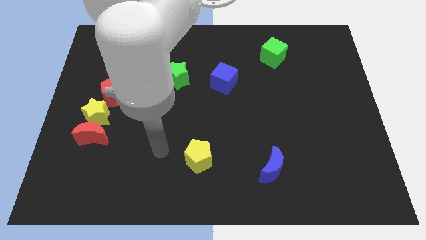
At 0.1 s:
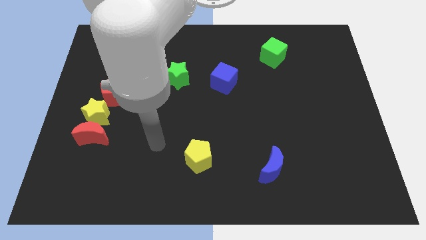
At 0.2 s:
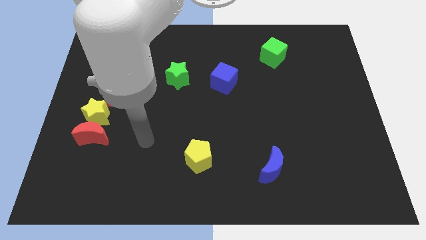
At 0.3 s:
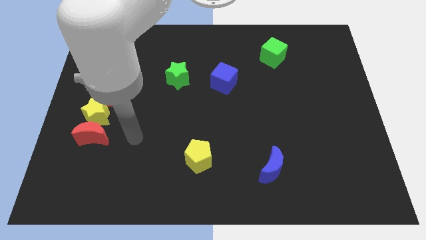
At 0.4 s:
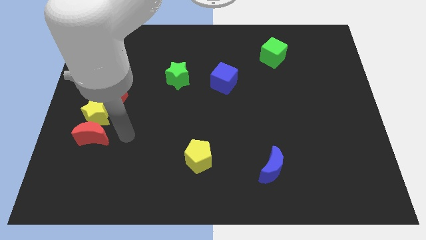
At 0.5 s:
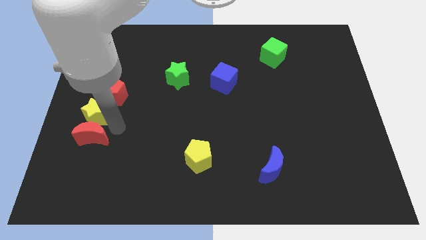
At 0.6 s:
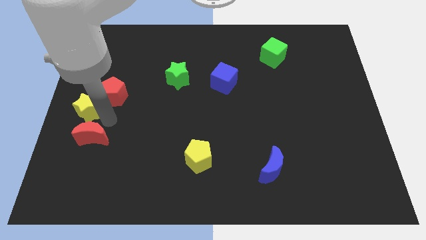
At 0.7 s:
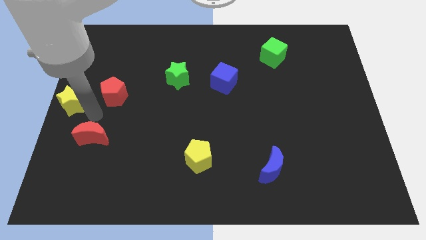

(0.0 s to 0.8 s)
separate the red moon from the yellow star

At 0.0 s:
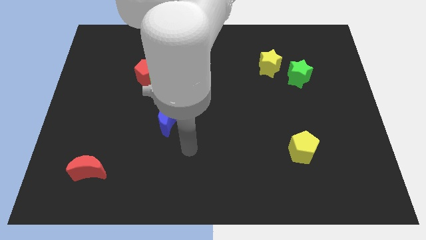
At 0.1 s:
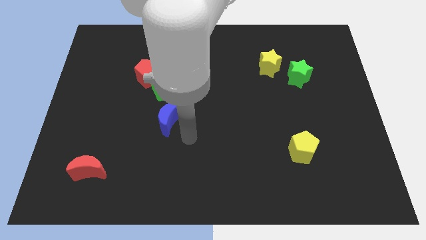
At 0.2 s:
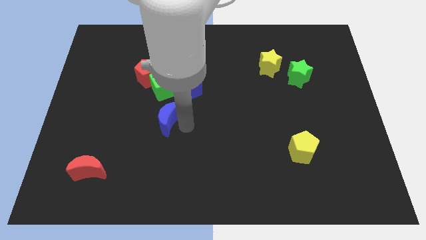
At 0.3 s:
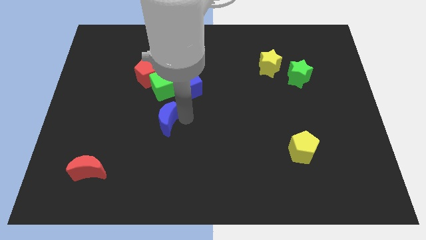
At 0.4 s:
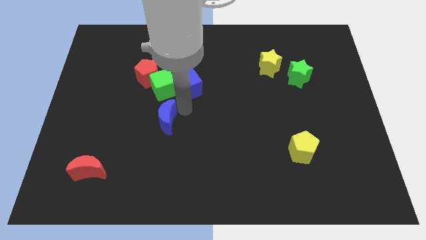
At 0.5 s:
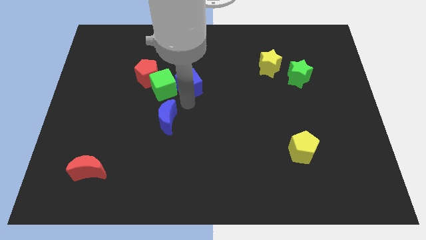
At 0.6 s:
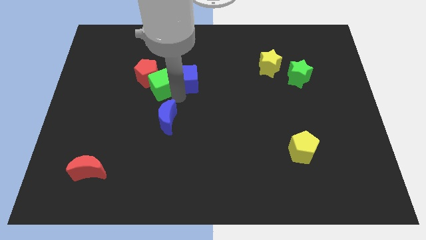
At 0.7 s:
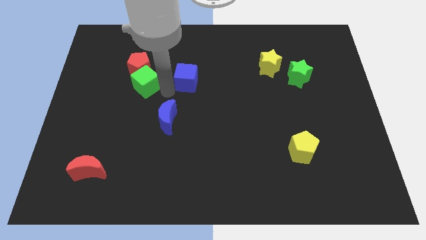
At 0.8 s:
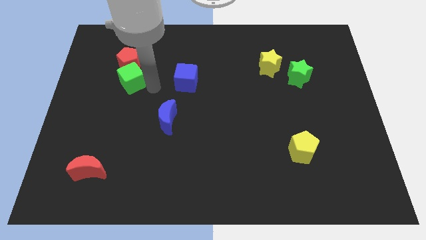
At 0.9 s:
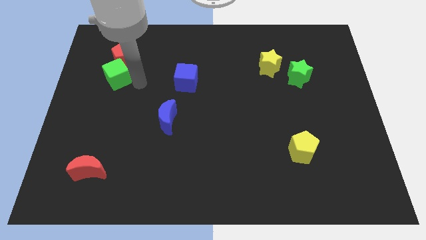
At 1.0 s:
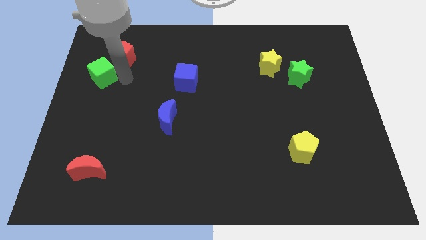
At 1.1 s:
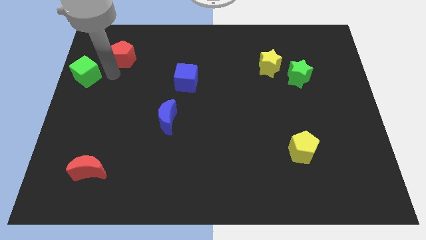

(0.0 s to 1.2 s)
pull the red pentagon apart from the green cube

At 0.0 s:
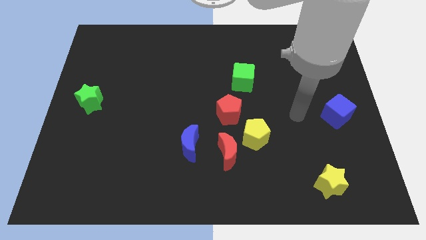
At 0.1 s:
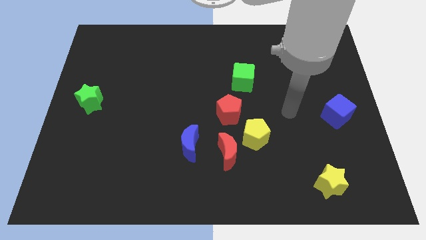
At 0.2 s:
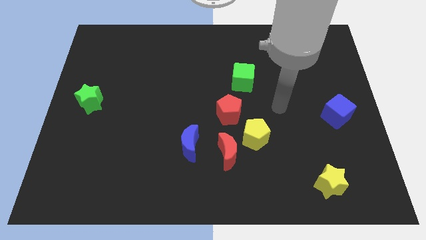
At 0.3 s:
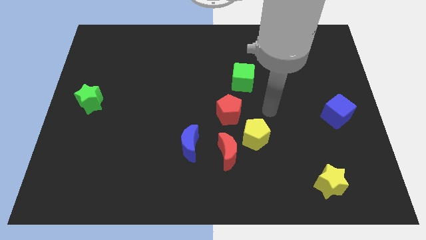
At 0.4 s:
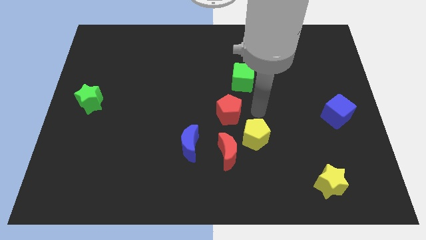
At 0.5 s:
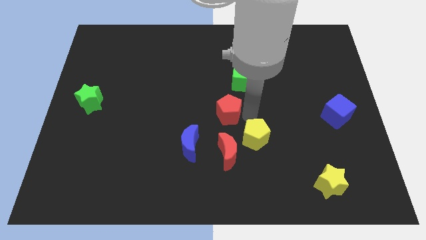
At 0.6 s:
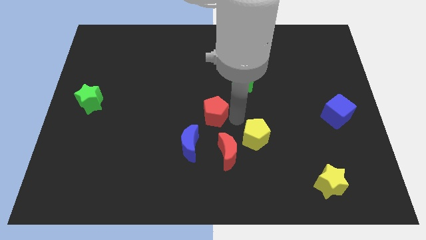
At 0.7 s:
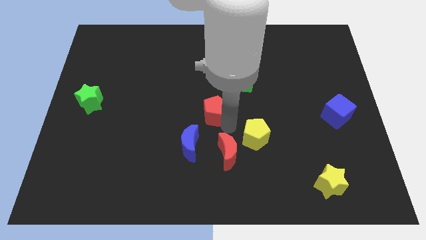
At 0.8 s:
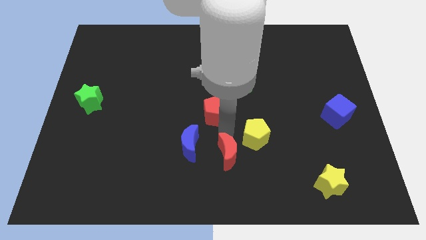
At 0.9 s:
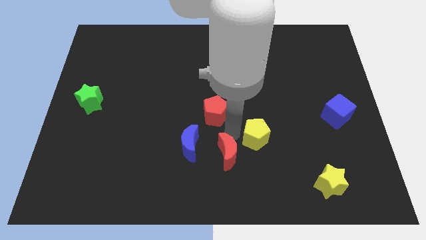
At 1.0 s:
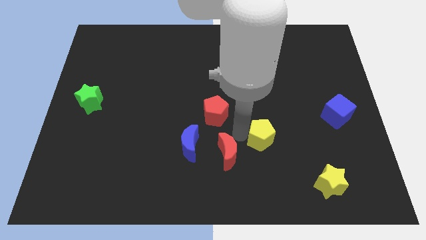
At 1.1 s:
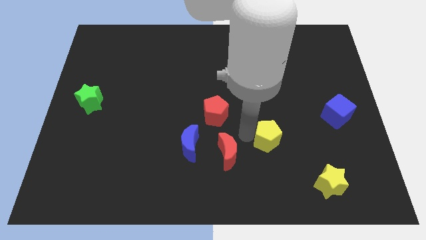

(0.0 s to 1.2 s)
pull the yellow pentagon apart from the red moon and red pentagon

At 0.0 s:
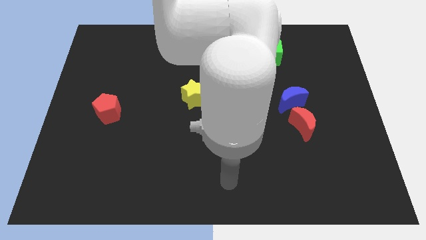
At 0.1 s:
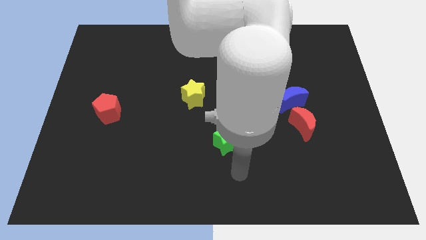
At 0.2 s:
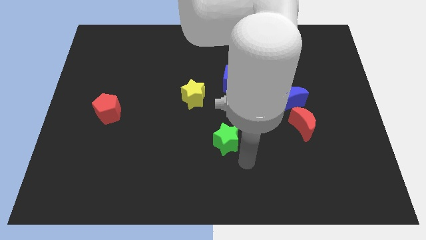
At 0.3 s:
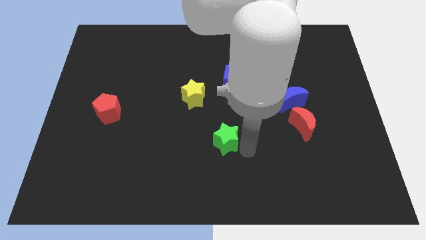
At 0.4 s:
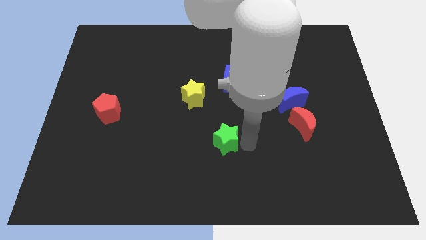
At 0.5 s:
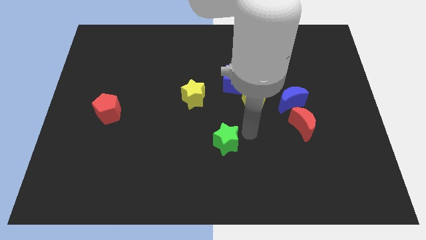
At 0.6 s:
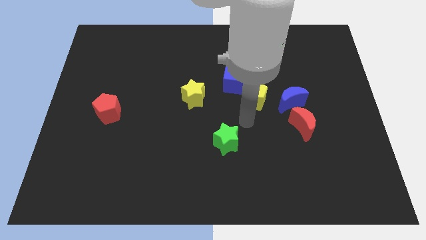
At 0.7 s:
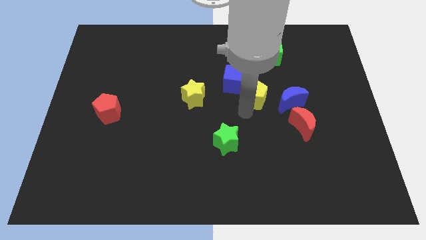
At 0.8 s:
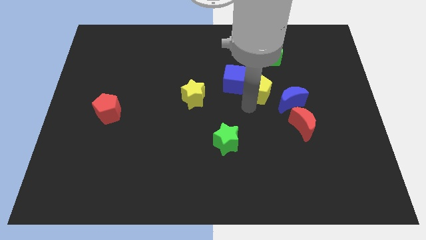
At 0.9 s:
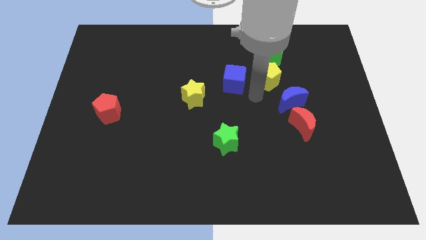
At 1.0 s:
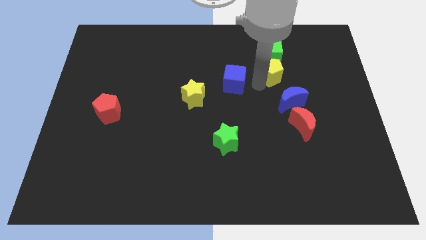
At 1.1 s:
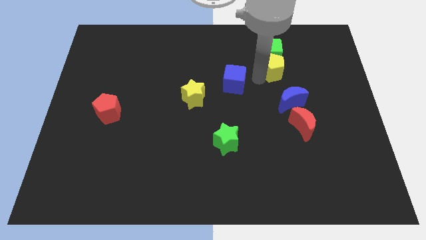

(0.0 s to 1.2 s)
pull the blue cube apart from the yellow pentagon

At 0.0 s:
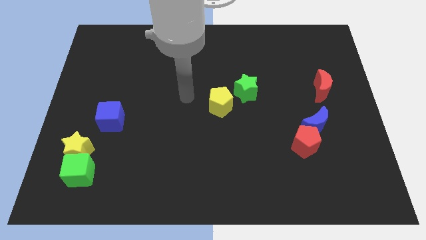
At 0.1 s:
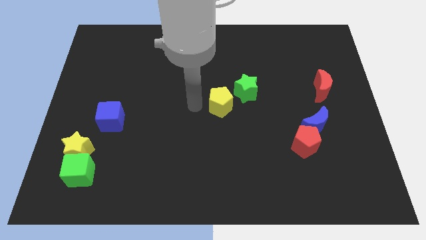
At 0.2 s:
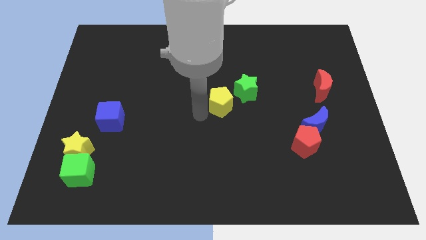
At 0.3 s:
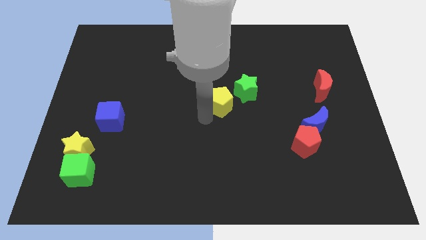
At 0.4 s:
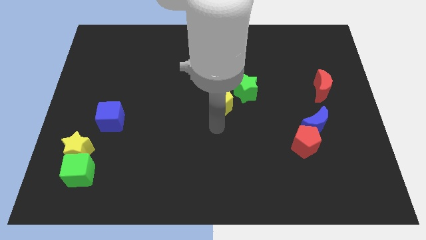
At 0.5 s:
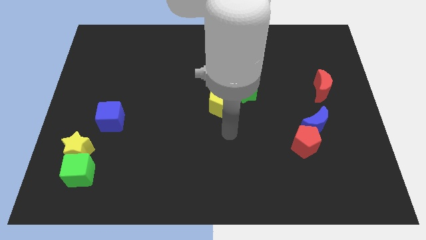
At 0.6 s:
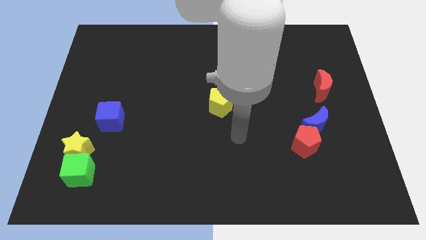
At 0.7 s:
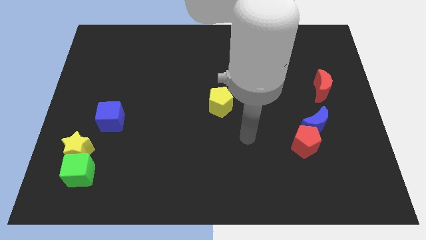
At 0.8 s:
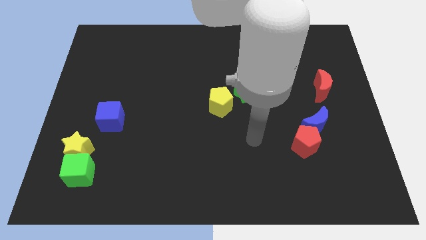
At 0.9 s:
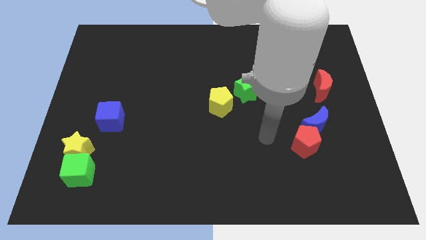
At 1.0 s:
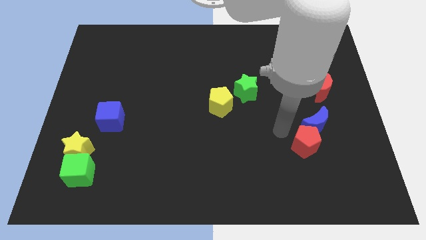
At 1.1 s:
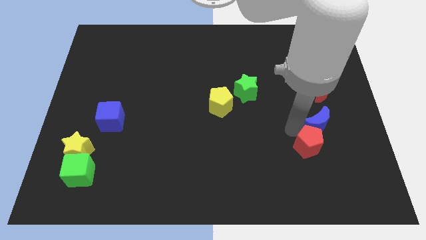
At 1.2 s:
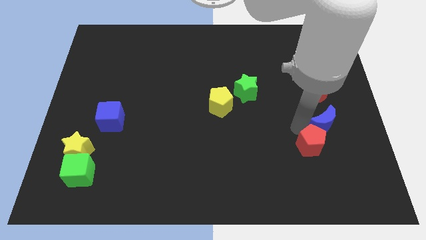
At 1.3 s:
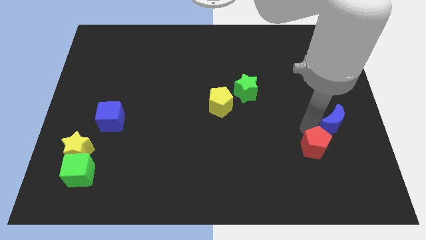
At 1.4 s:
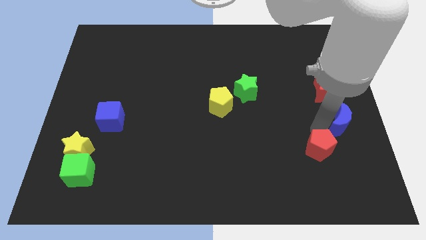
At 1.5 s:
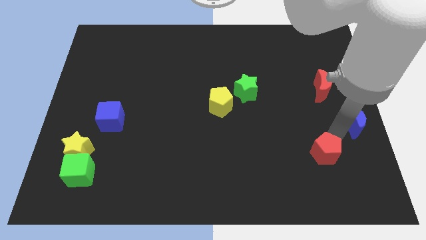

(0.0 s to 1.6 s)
pull the red pentagon apart from the blue moon

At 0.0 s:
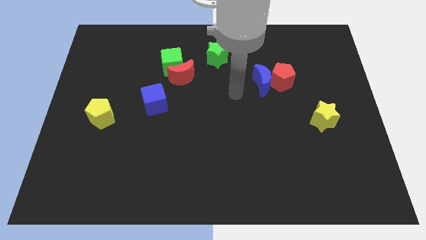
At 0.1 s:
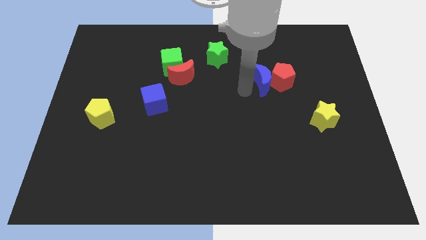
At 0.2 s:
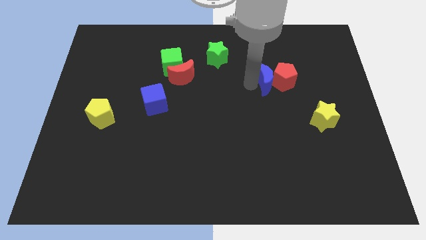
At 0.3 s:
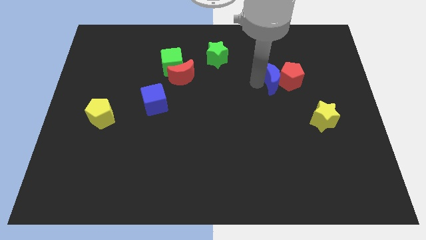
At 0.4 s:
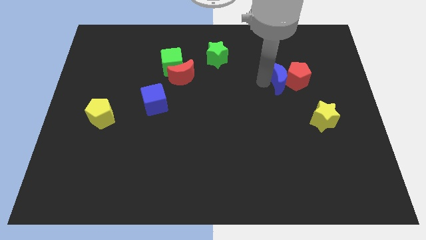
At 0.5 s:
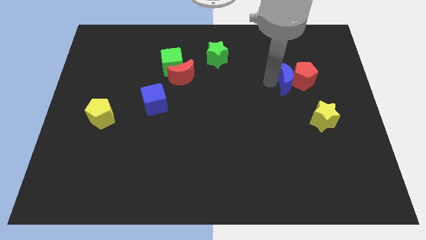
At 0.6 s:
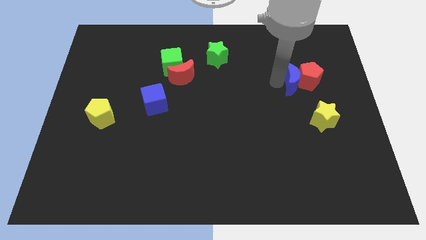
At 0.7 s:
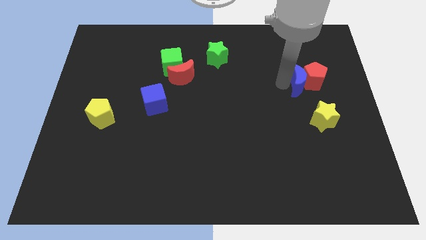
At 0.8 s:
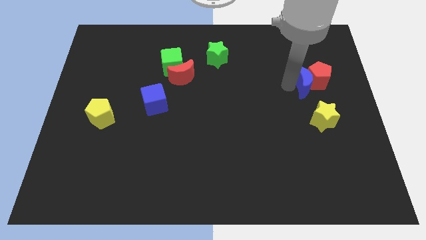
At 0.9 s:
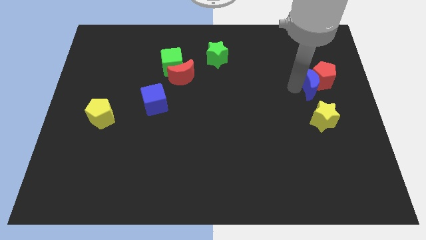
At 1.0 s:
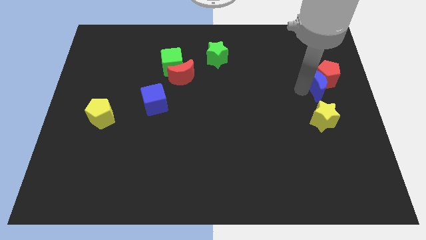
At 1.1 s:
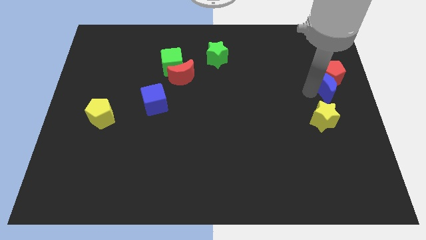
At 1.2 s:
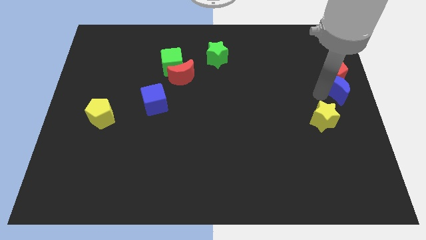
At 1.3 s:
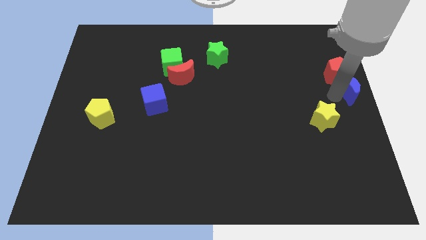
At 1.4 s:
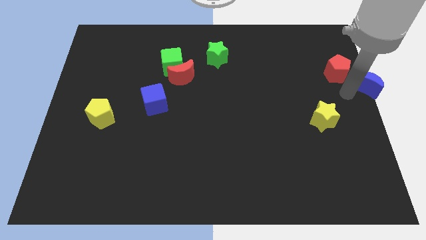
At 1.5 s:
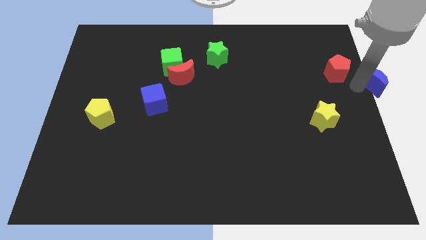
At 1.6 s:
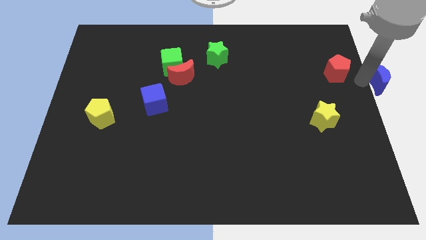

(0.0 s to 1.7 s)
separate the red pentagon from the blue moon

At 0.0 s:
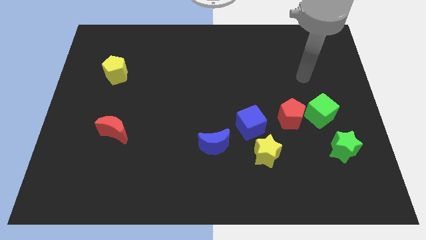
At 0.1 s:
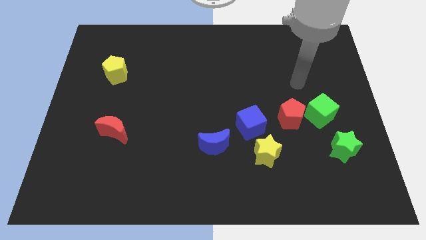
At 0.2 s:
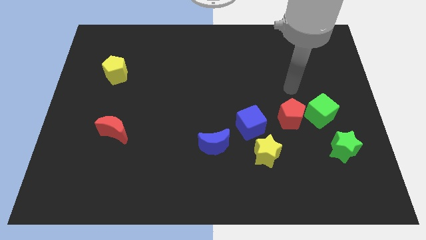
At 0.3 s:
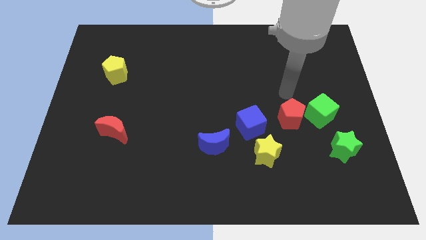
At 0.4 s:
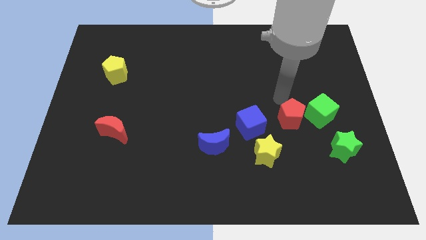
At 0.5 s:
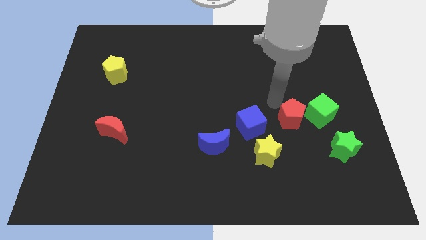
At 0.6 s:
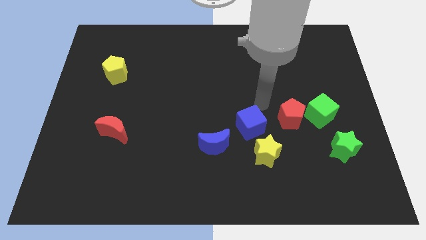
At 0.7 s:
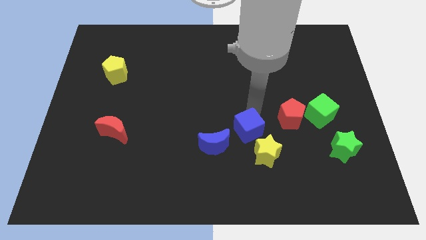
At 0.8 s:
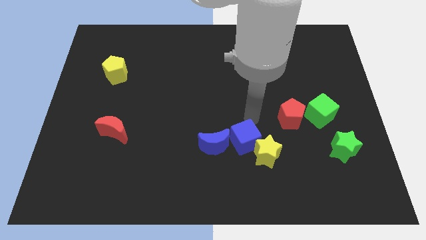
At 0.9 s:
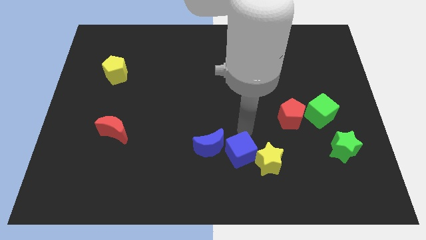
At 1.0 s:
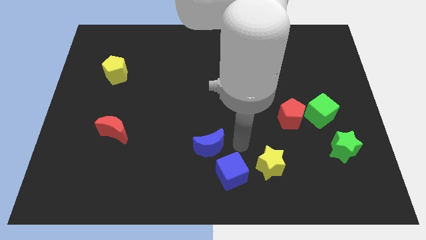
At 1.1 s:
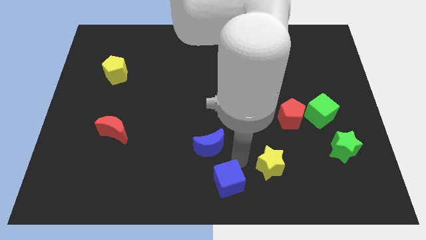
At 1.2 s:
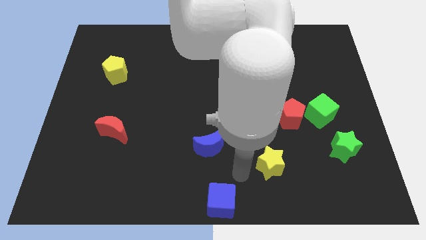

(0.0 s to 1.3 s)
separate the yellow star from the blue cube

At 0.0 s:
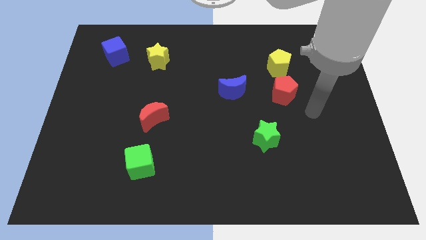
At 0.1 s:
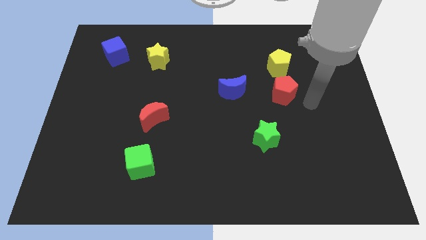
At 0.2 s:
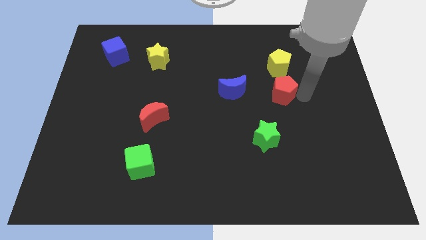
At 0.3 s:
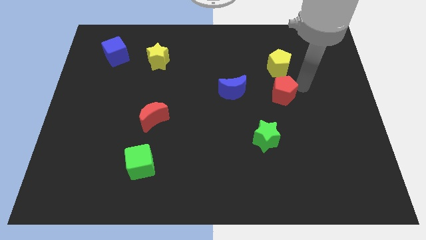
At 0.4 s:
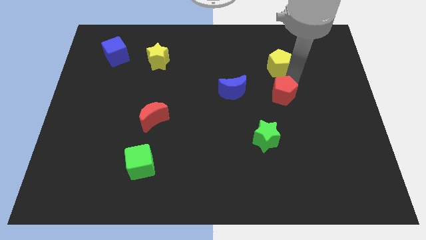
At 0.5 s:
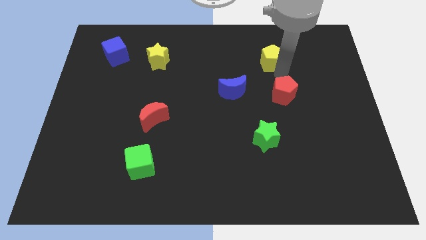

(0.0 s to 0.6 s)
move the red pentagon away from the yellow pentagon
